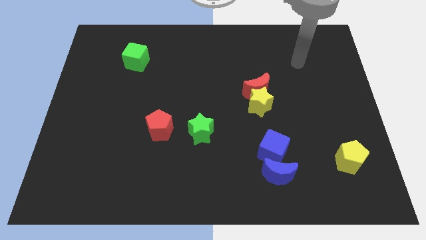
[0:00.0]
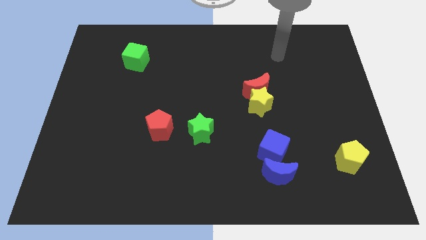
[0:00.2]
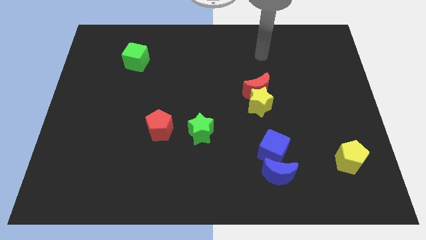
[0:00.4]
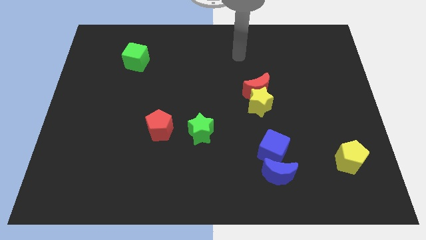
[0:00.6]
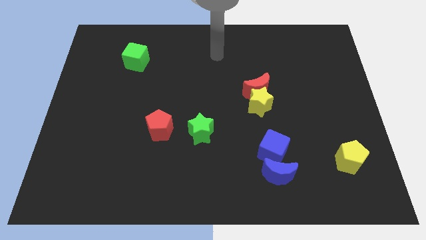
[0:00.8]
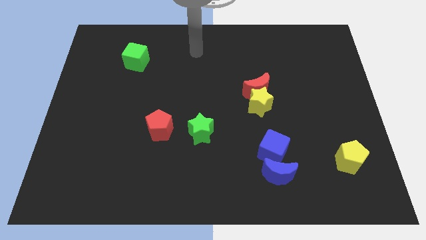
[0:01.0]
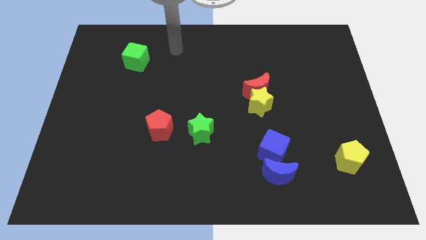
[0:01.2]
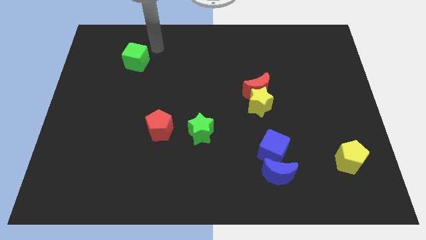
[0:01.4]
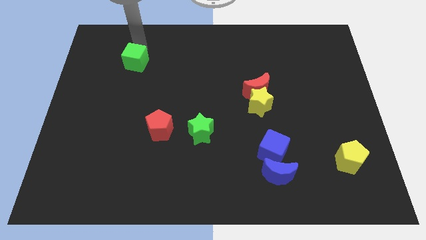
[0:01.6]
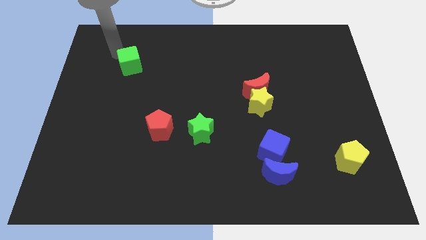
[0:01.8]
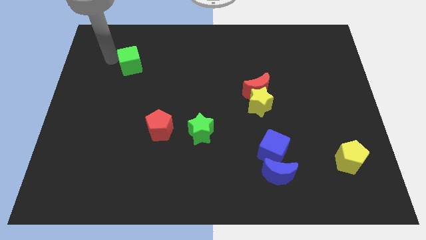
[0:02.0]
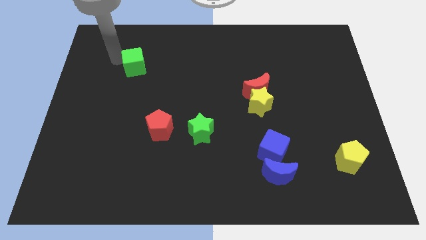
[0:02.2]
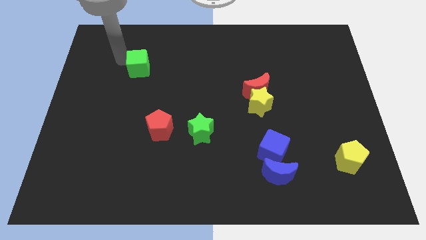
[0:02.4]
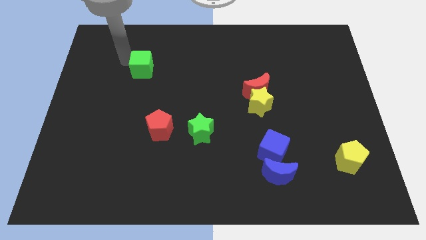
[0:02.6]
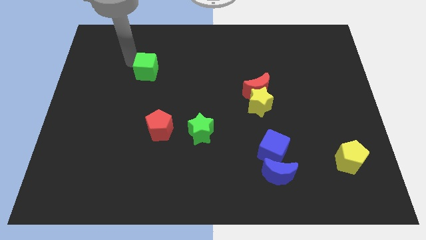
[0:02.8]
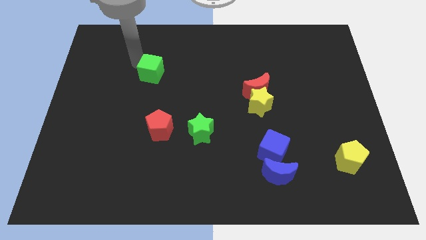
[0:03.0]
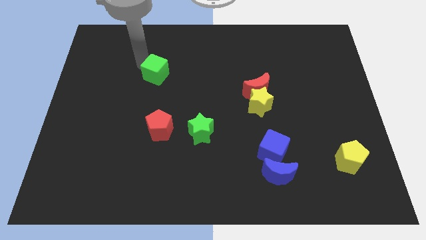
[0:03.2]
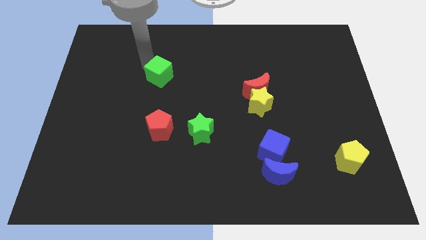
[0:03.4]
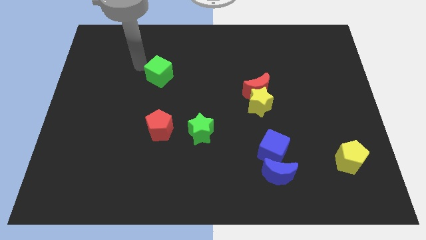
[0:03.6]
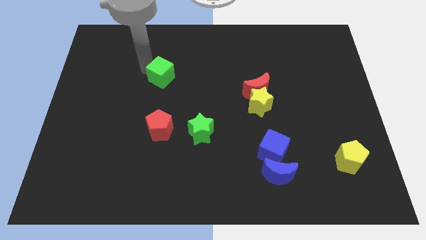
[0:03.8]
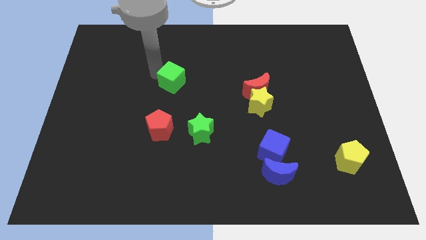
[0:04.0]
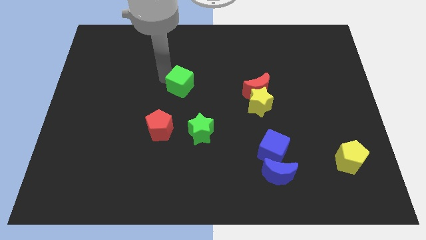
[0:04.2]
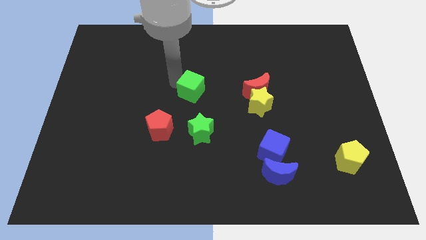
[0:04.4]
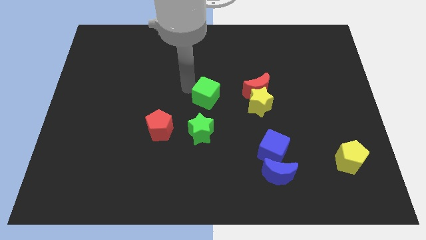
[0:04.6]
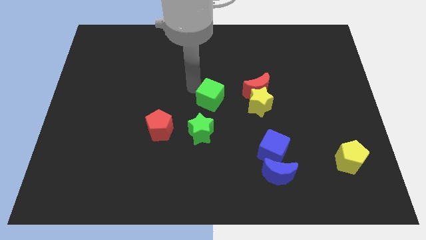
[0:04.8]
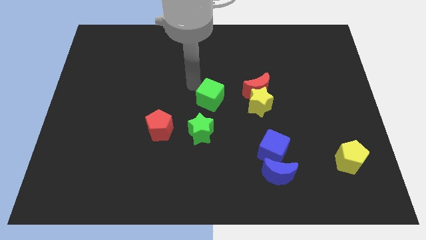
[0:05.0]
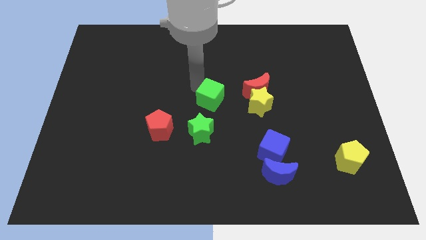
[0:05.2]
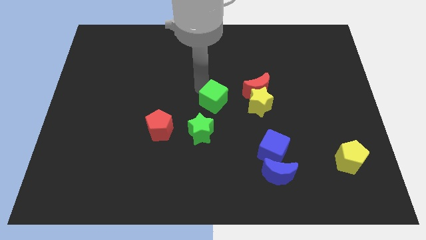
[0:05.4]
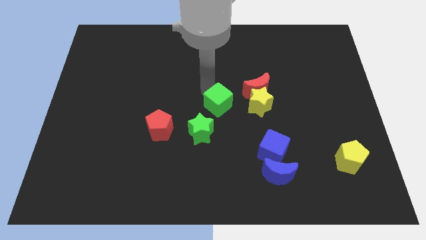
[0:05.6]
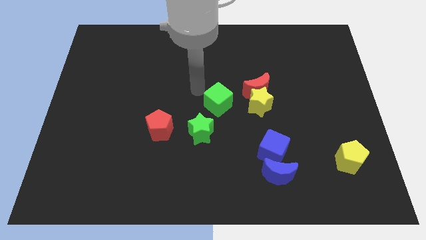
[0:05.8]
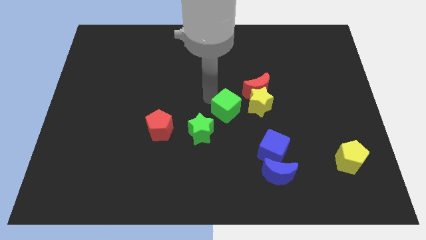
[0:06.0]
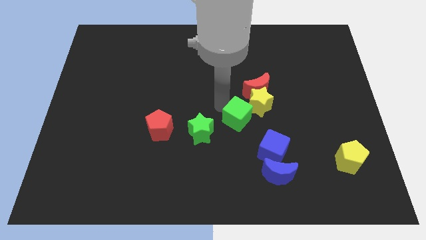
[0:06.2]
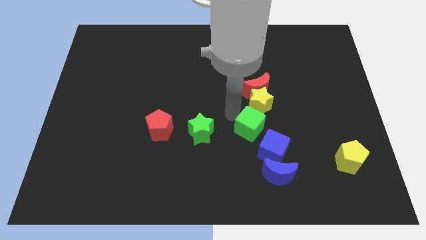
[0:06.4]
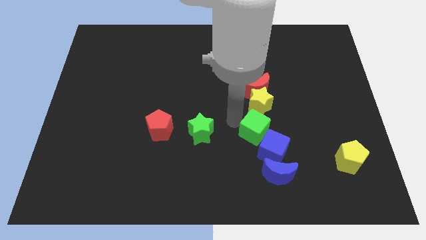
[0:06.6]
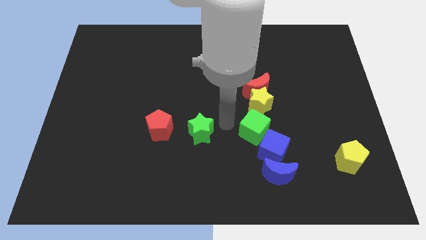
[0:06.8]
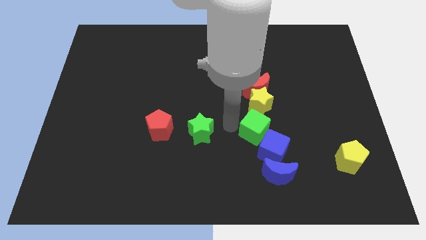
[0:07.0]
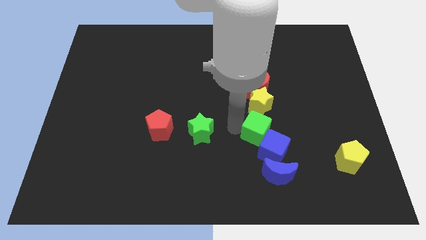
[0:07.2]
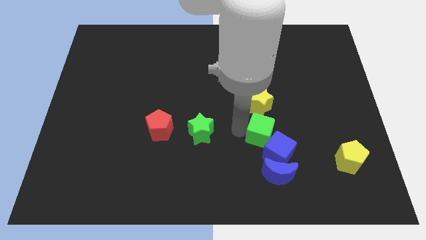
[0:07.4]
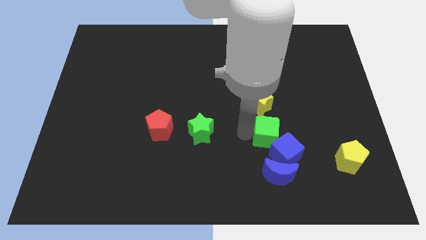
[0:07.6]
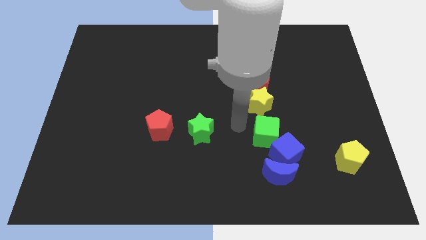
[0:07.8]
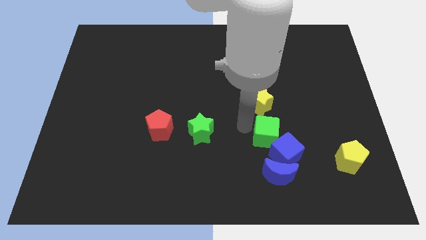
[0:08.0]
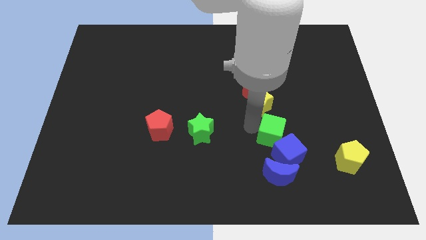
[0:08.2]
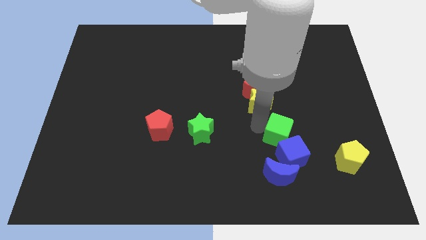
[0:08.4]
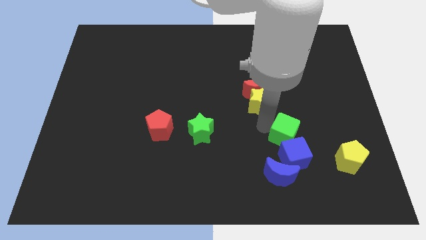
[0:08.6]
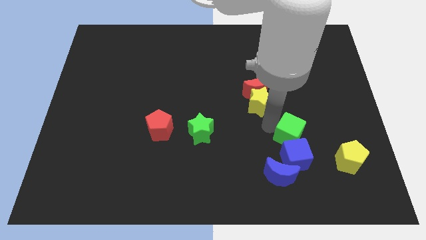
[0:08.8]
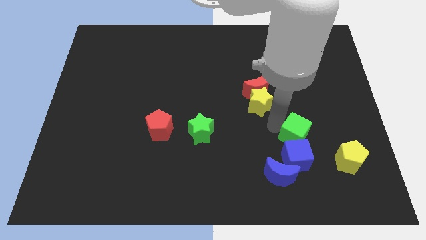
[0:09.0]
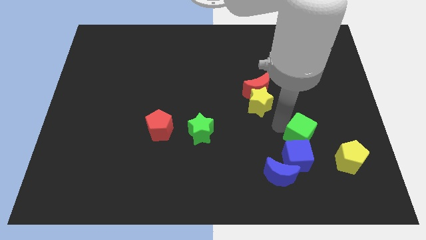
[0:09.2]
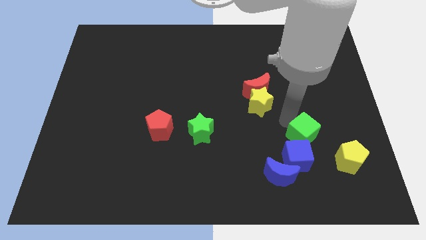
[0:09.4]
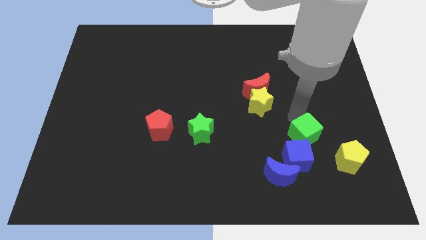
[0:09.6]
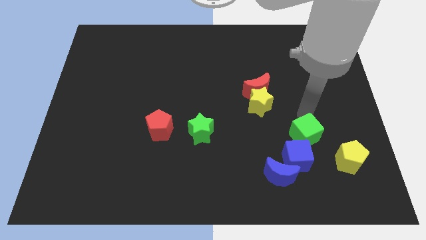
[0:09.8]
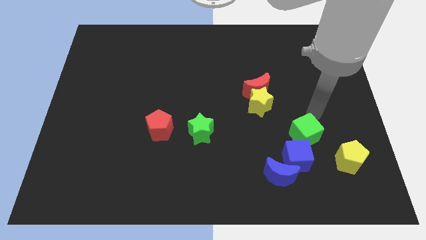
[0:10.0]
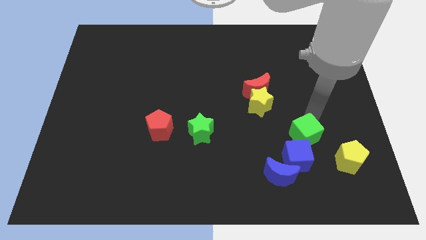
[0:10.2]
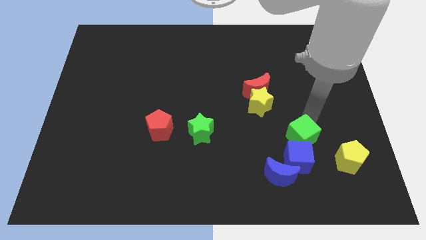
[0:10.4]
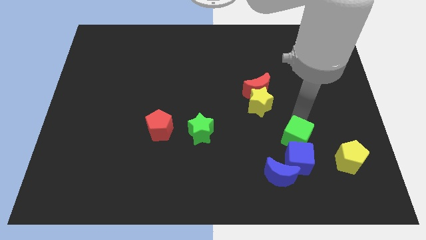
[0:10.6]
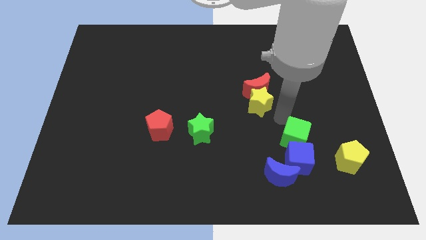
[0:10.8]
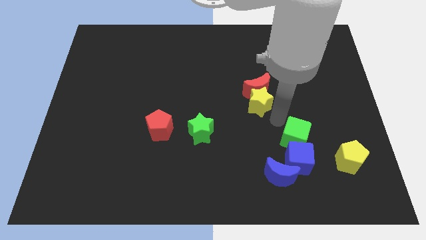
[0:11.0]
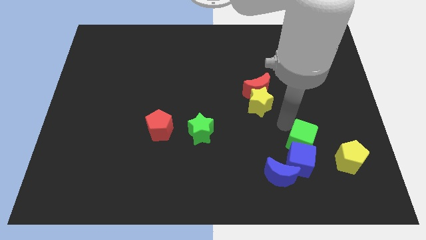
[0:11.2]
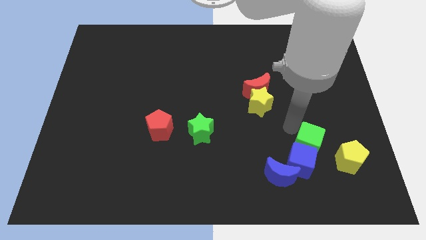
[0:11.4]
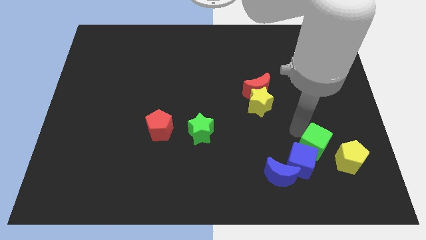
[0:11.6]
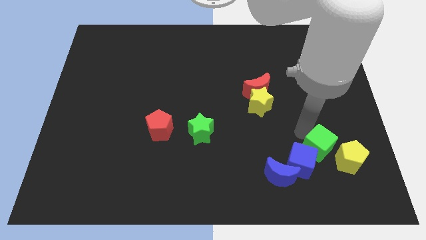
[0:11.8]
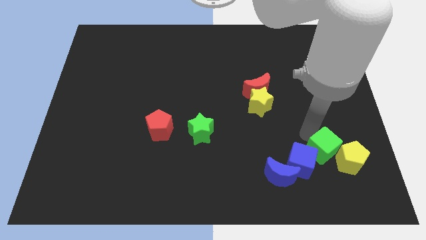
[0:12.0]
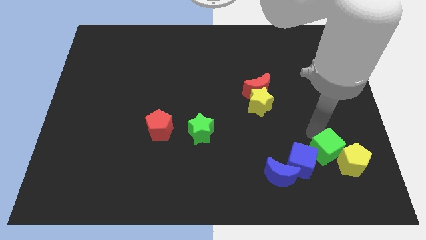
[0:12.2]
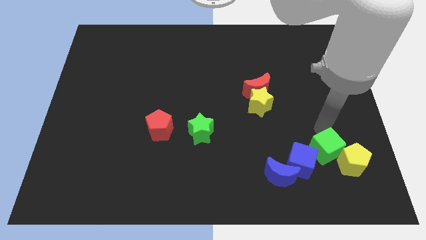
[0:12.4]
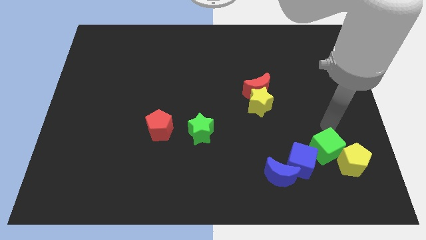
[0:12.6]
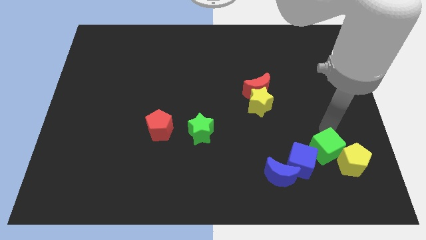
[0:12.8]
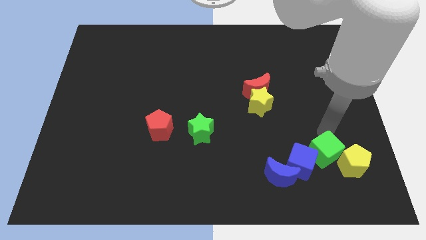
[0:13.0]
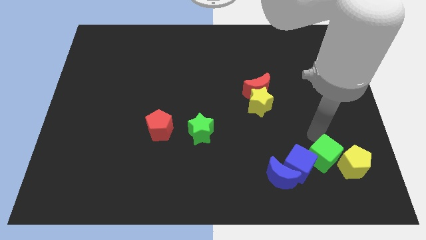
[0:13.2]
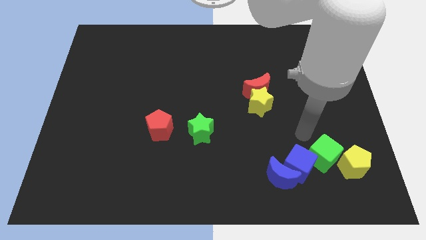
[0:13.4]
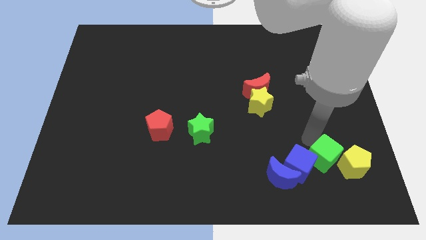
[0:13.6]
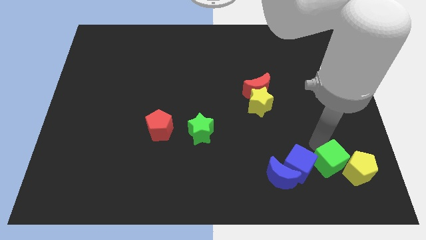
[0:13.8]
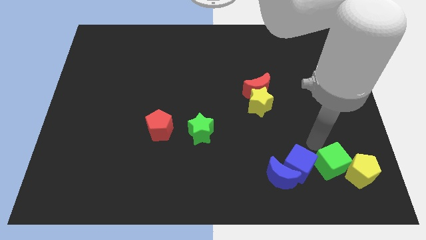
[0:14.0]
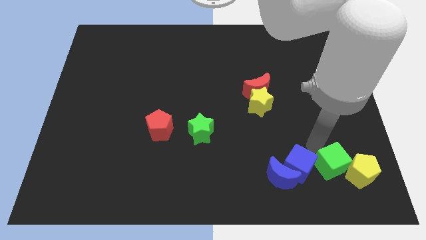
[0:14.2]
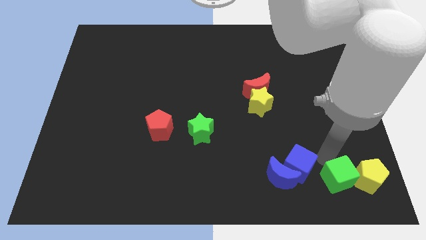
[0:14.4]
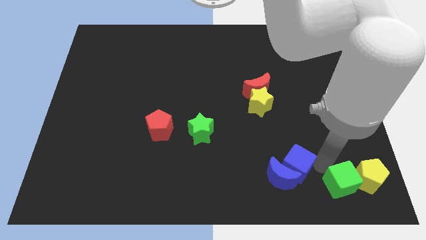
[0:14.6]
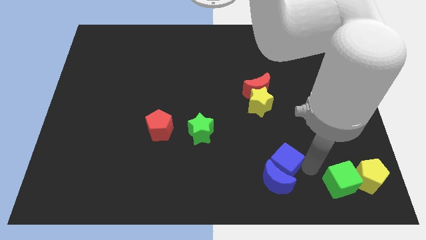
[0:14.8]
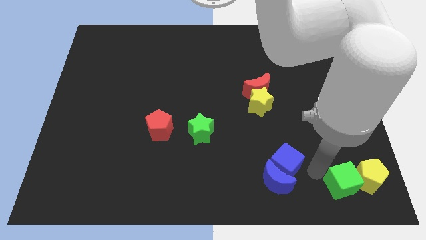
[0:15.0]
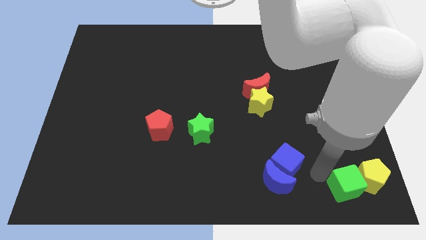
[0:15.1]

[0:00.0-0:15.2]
slide the green cube to the bottom right
